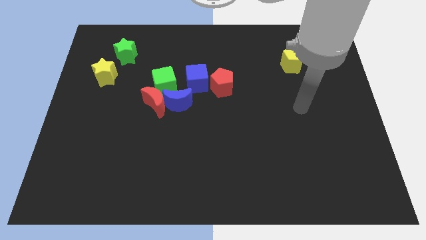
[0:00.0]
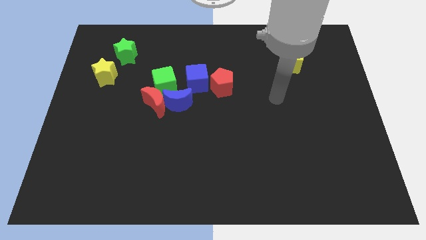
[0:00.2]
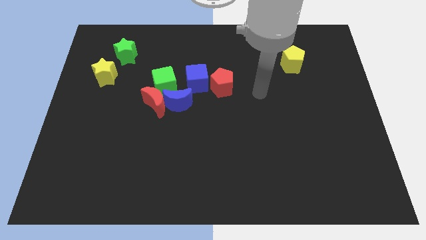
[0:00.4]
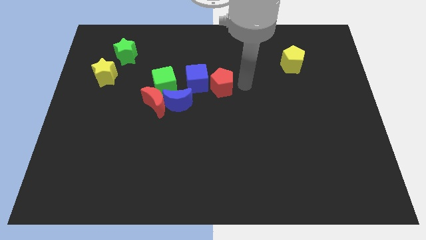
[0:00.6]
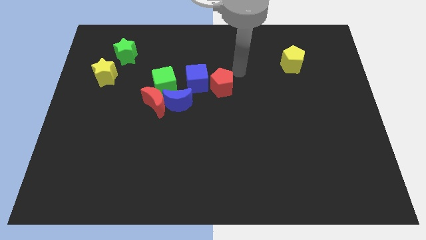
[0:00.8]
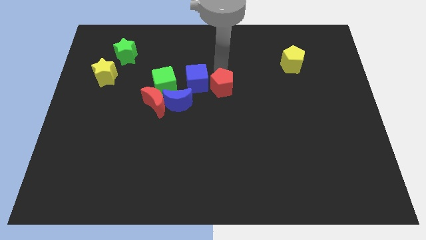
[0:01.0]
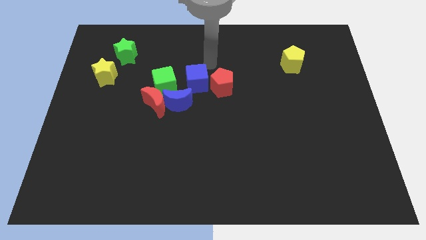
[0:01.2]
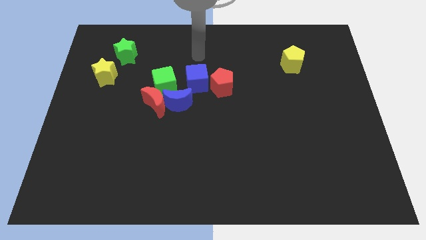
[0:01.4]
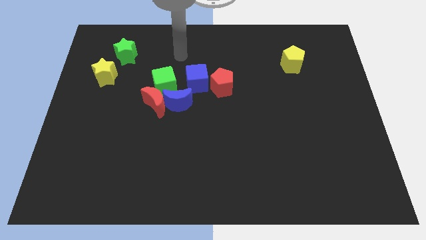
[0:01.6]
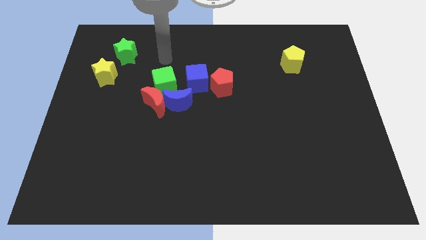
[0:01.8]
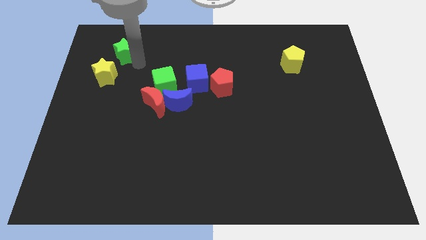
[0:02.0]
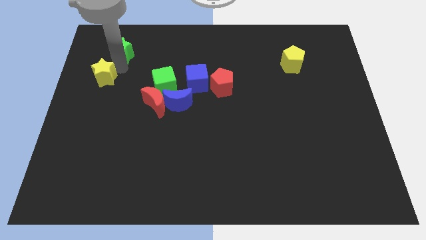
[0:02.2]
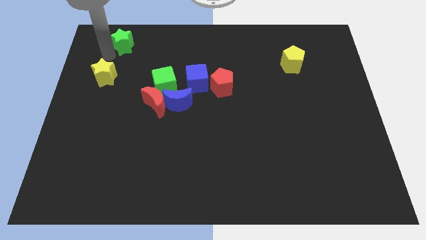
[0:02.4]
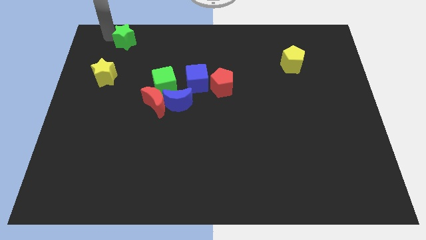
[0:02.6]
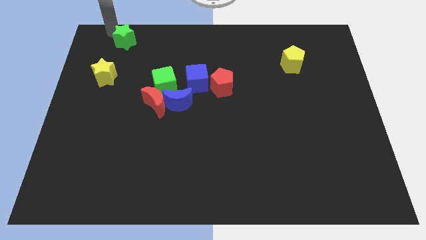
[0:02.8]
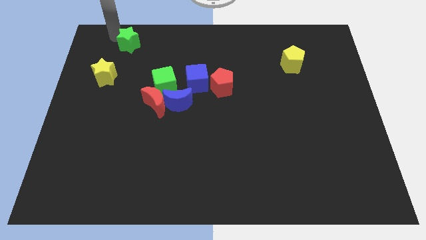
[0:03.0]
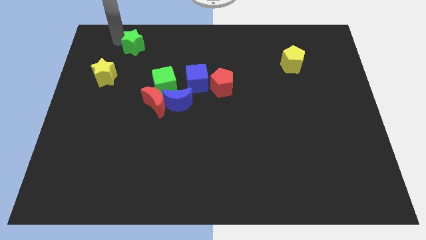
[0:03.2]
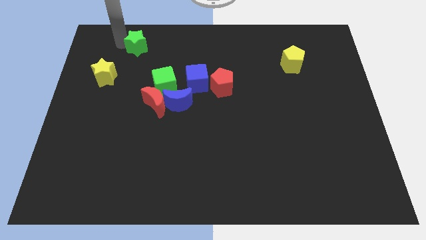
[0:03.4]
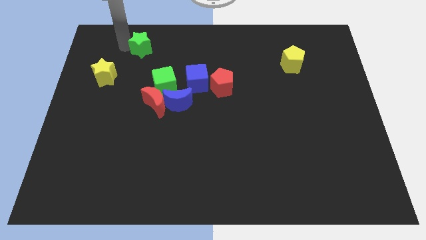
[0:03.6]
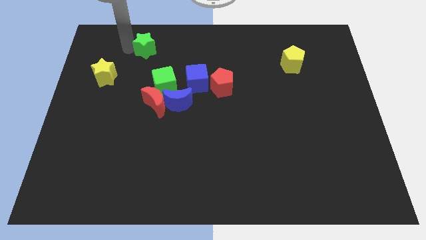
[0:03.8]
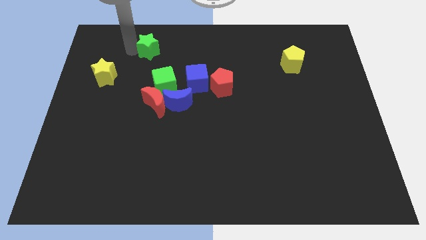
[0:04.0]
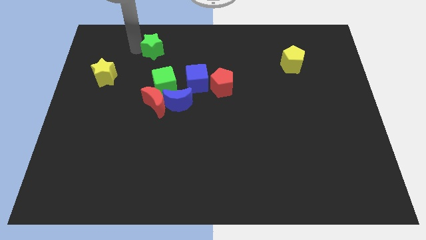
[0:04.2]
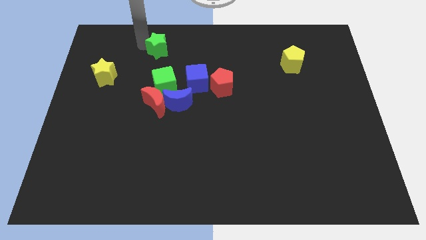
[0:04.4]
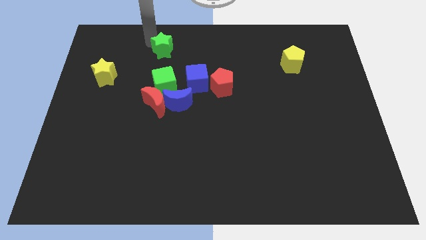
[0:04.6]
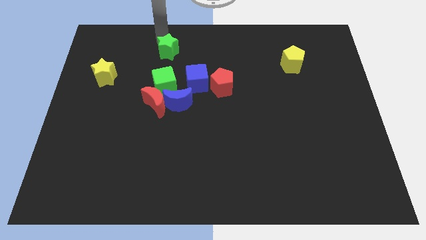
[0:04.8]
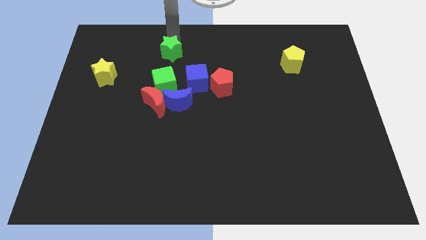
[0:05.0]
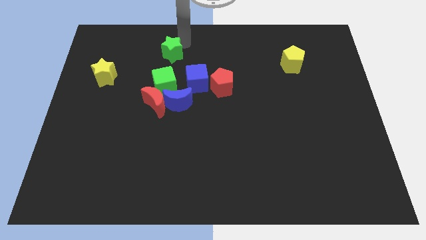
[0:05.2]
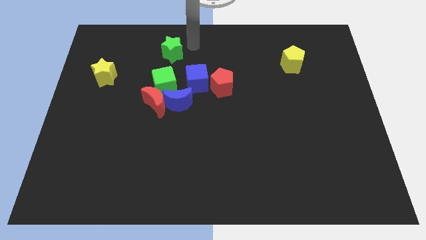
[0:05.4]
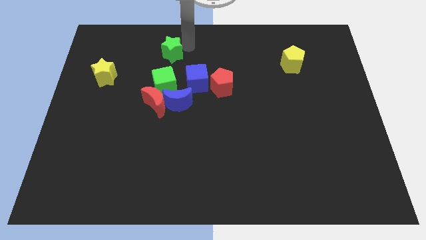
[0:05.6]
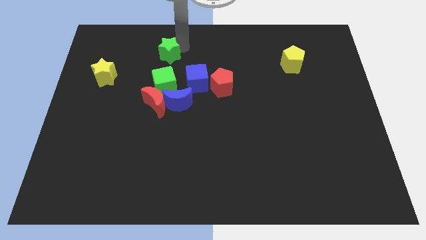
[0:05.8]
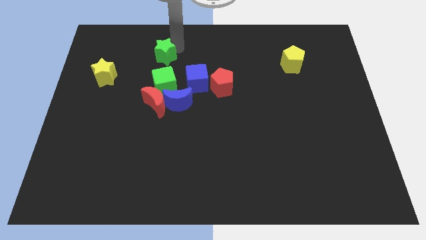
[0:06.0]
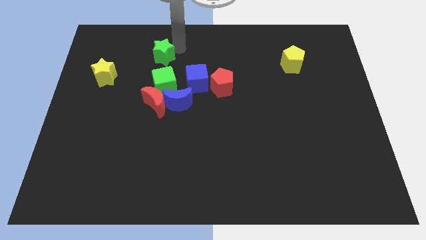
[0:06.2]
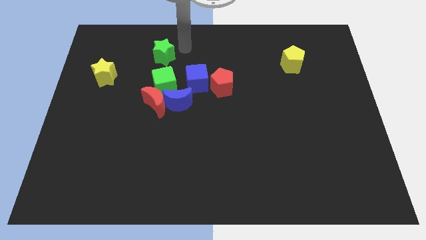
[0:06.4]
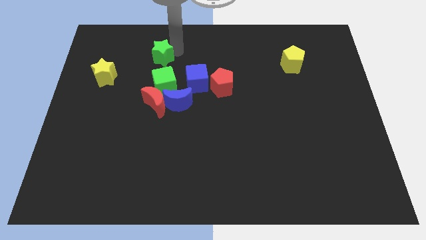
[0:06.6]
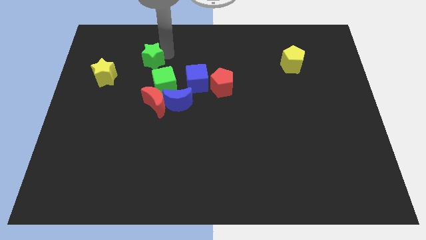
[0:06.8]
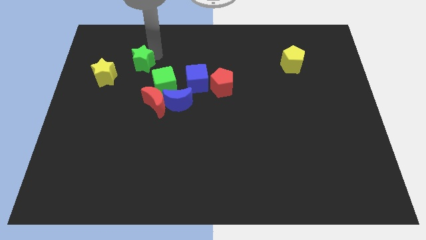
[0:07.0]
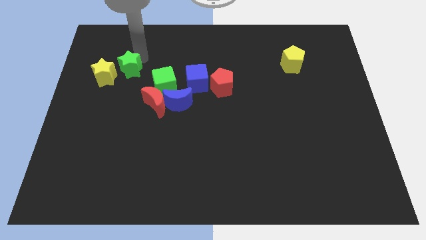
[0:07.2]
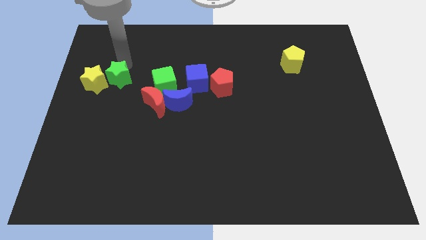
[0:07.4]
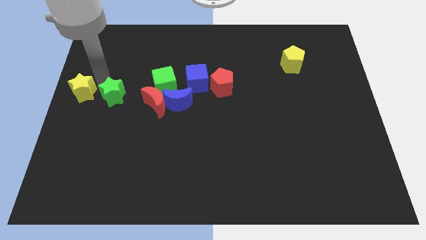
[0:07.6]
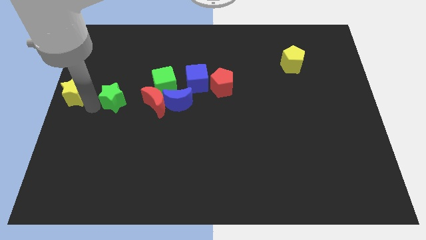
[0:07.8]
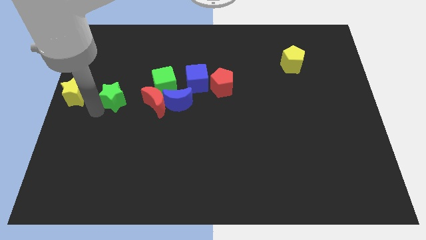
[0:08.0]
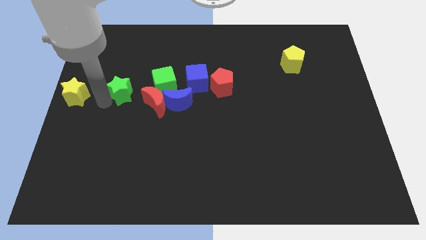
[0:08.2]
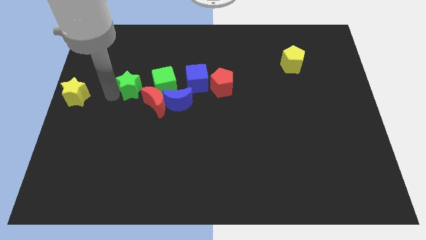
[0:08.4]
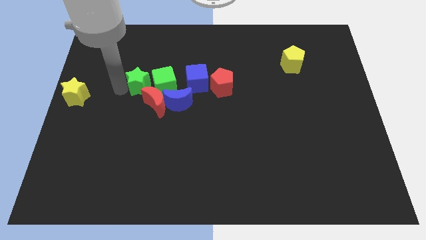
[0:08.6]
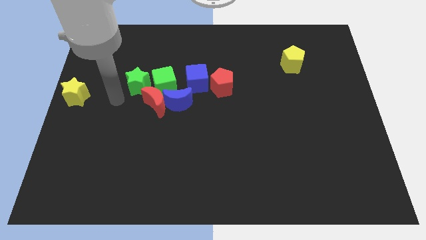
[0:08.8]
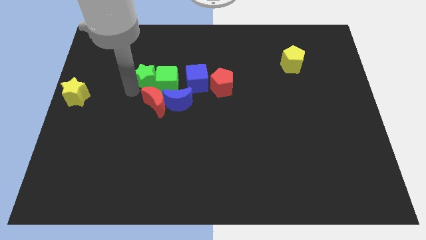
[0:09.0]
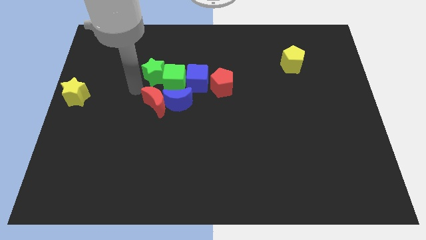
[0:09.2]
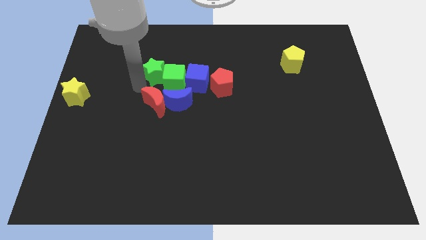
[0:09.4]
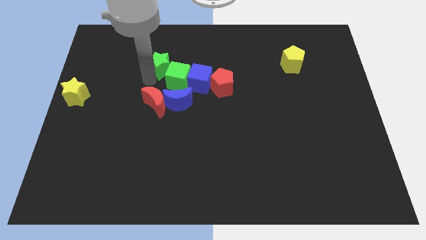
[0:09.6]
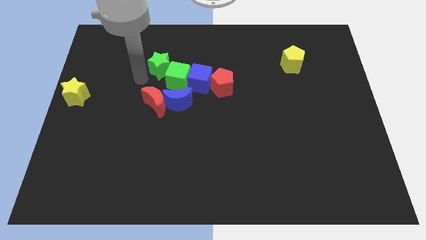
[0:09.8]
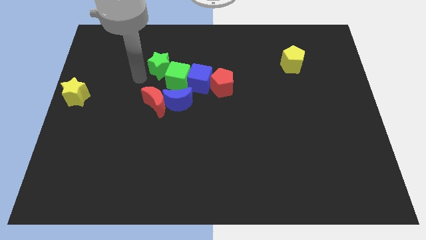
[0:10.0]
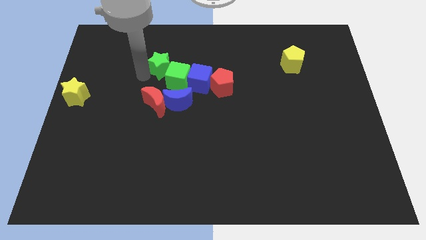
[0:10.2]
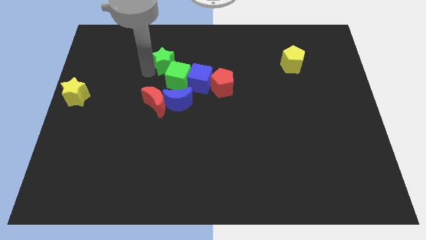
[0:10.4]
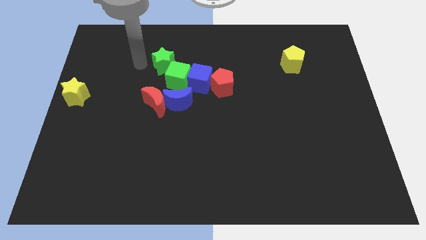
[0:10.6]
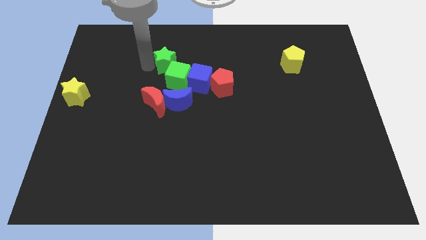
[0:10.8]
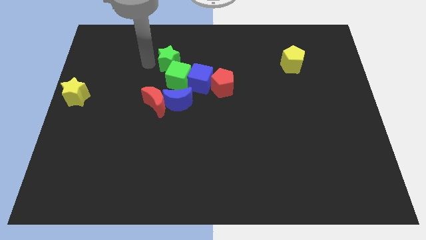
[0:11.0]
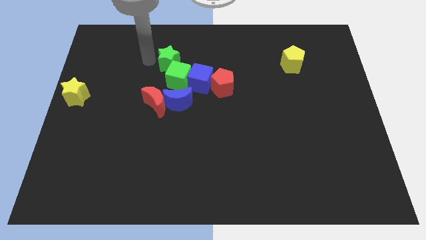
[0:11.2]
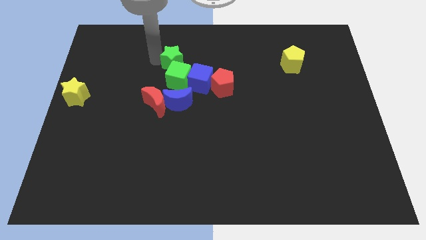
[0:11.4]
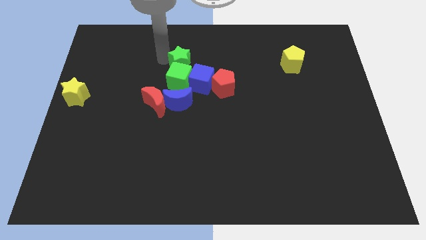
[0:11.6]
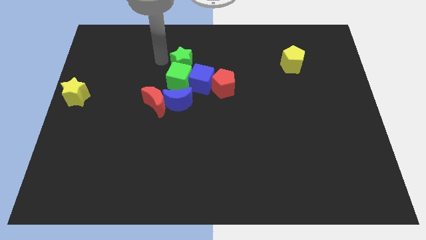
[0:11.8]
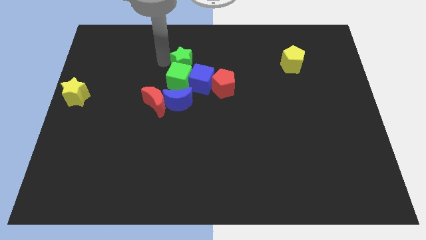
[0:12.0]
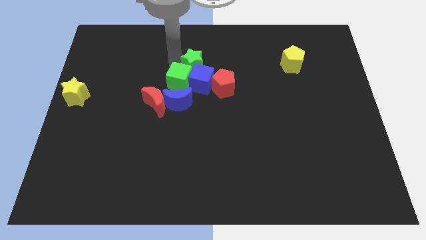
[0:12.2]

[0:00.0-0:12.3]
slide the green star to the center of the board
